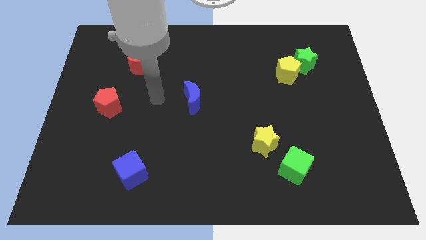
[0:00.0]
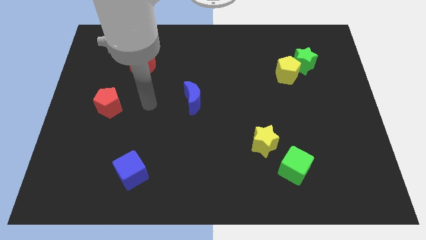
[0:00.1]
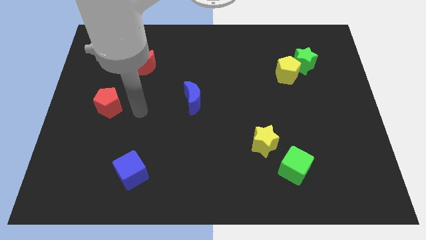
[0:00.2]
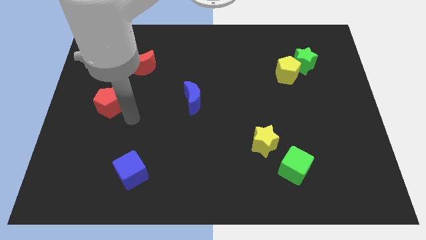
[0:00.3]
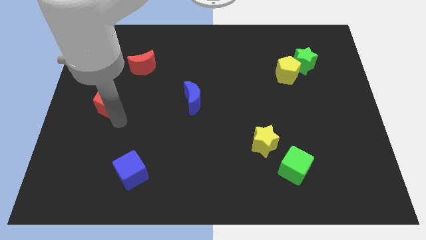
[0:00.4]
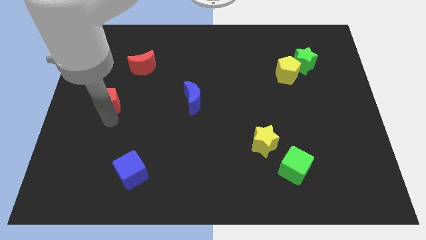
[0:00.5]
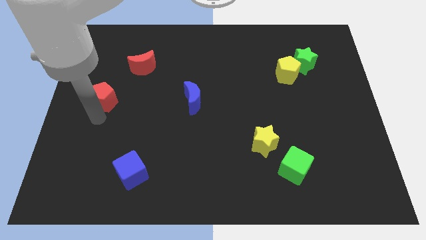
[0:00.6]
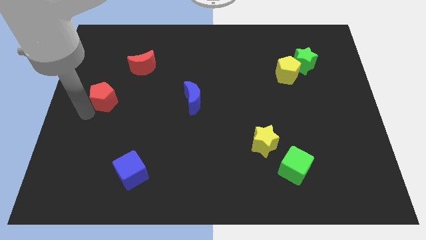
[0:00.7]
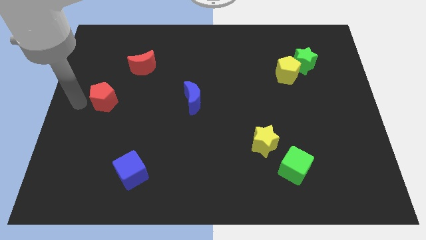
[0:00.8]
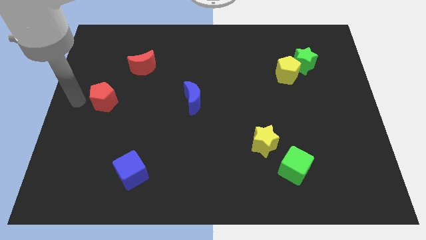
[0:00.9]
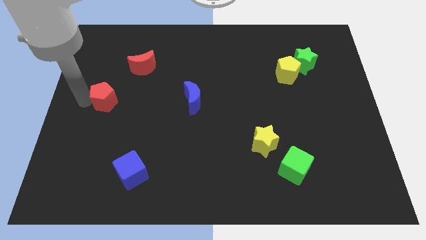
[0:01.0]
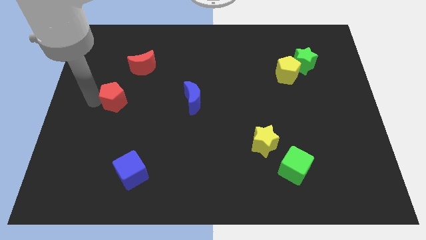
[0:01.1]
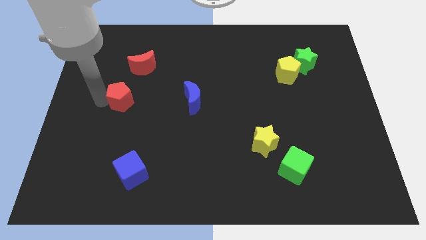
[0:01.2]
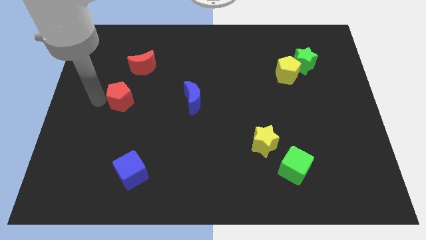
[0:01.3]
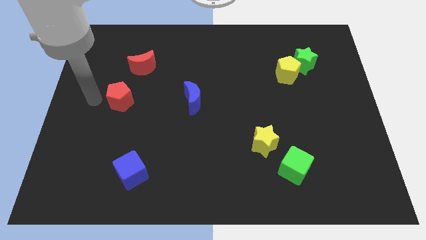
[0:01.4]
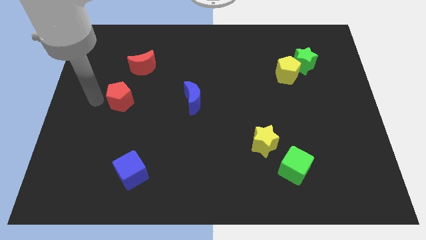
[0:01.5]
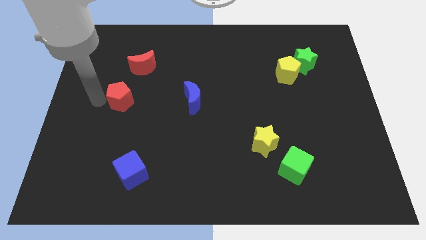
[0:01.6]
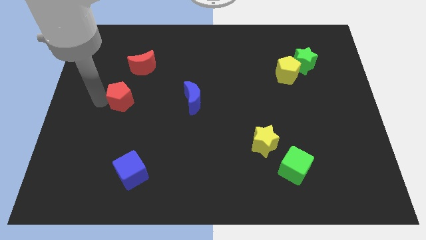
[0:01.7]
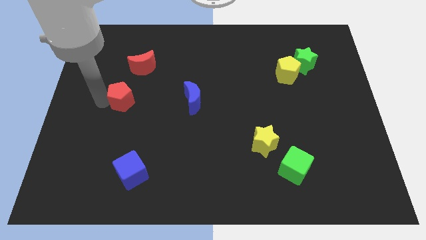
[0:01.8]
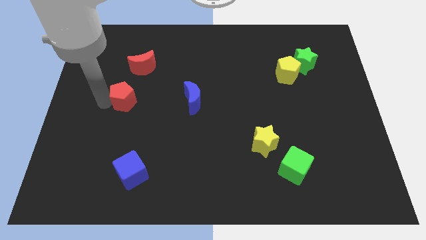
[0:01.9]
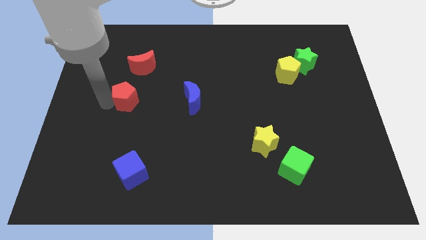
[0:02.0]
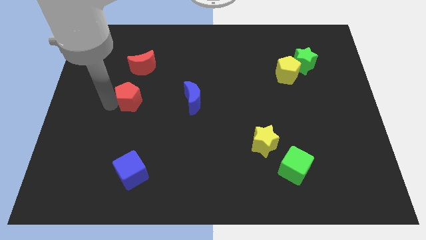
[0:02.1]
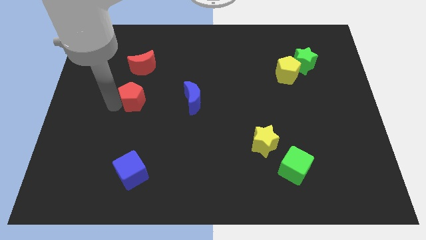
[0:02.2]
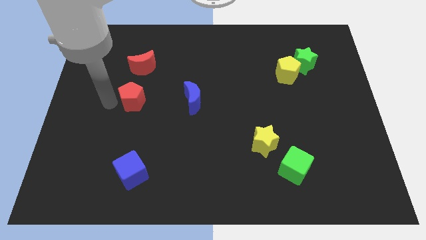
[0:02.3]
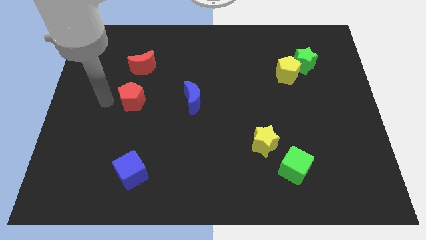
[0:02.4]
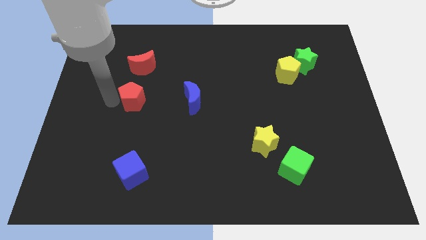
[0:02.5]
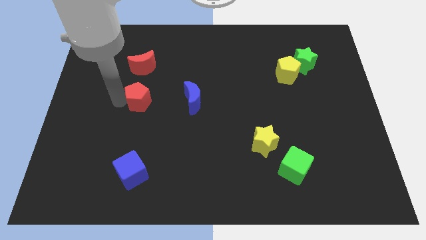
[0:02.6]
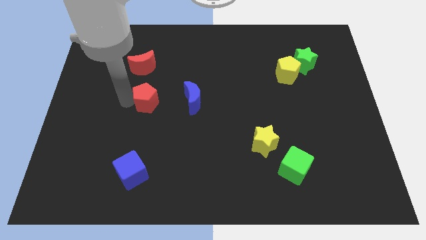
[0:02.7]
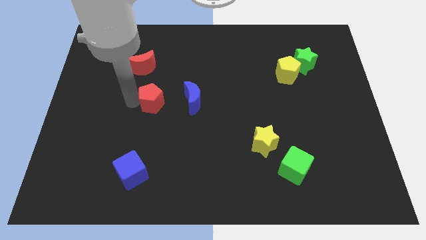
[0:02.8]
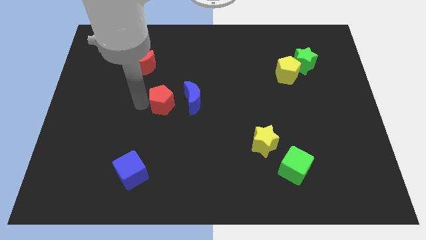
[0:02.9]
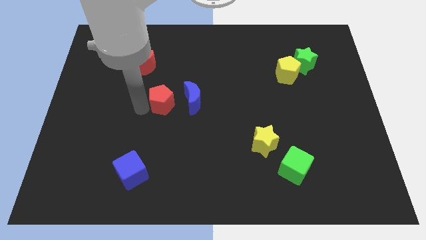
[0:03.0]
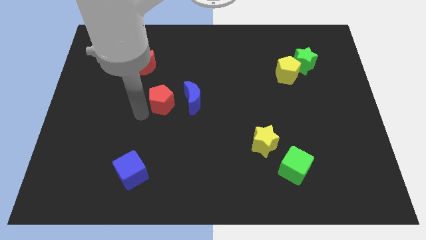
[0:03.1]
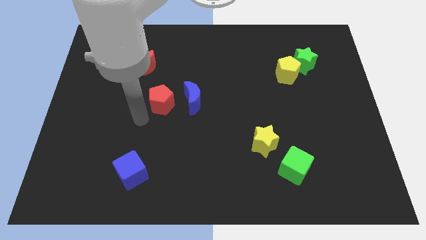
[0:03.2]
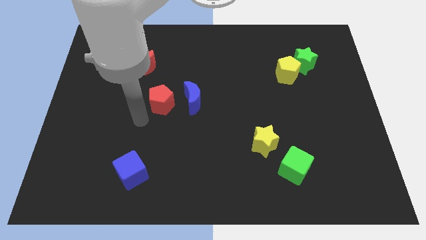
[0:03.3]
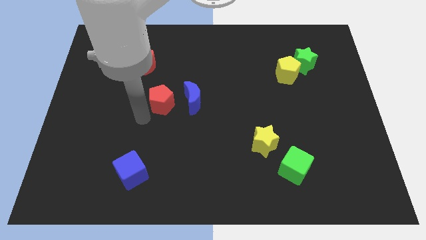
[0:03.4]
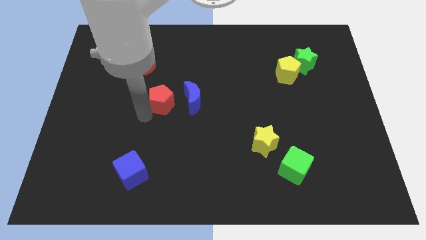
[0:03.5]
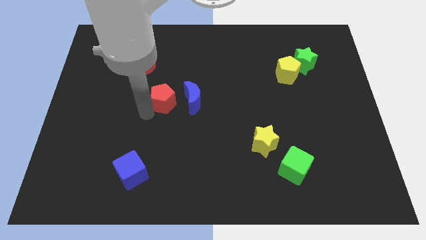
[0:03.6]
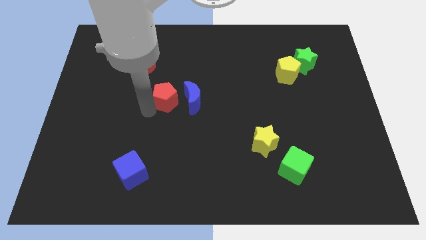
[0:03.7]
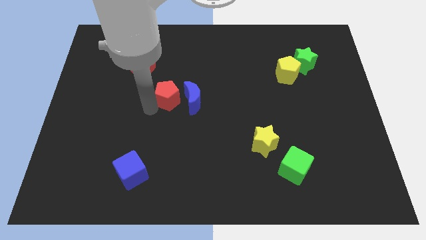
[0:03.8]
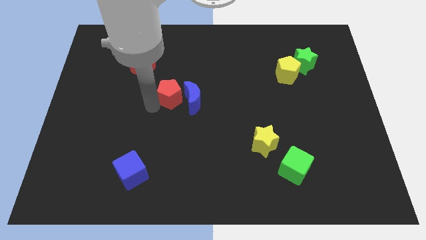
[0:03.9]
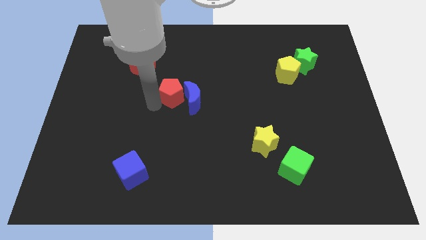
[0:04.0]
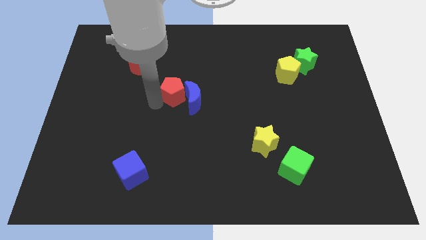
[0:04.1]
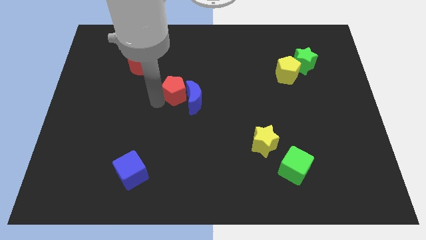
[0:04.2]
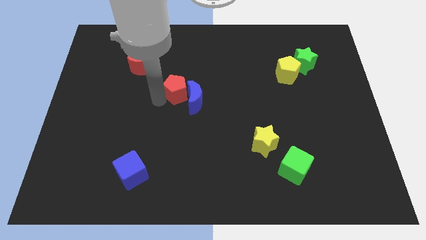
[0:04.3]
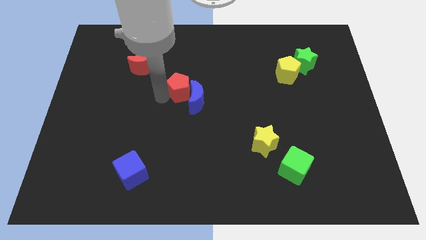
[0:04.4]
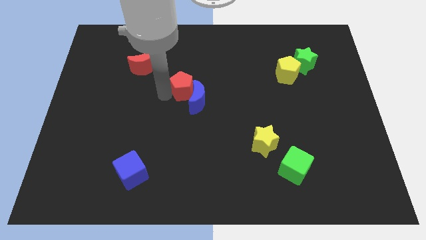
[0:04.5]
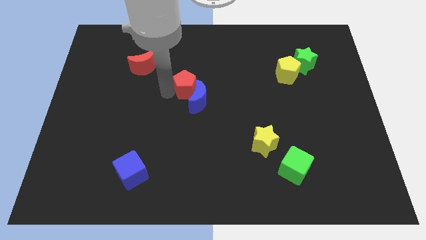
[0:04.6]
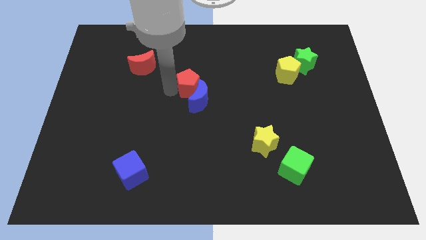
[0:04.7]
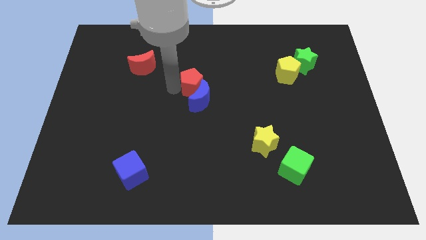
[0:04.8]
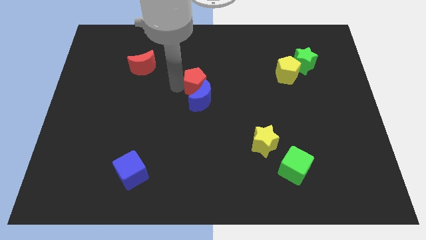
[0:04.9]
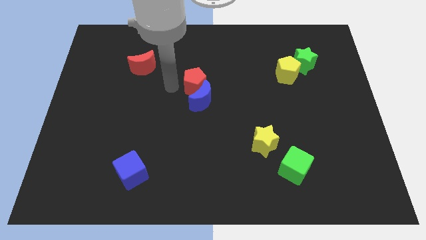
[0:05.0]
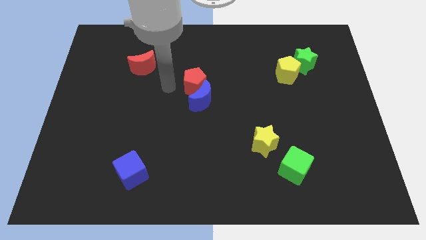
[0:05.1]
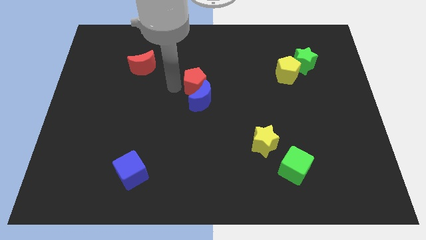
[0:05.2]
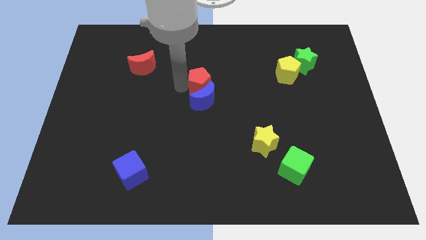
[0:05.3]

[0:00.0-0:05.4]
put the red pentagon to the top right of the blue moon

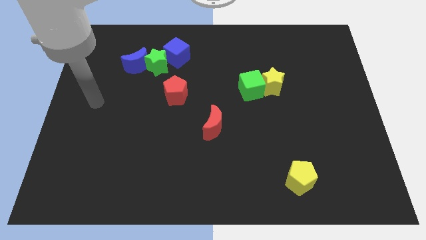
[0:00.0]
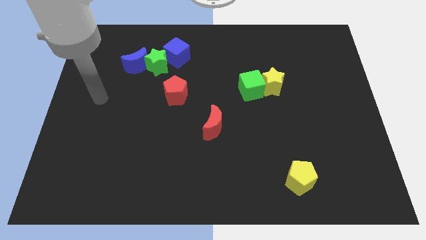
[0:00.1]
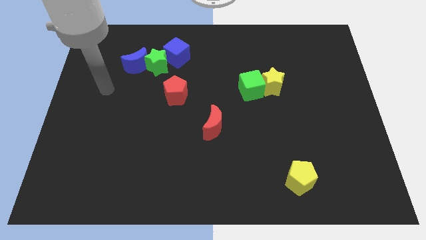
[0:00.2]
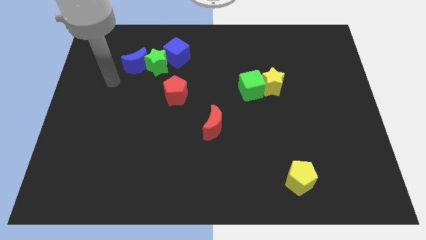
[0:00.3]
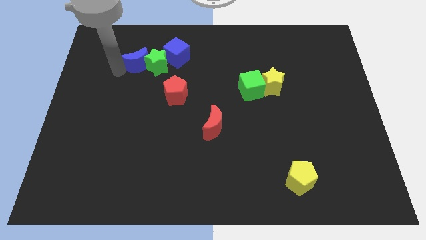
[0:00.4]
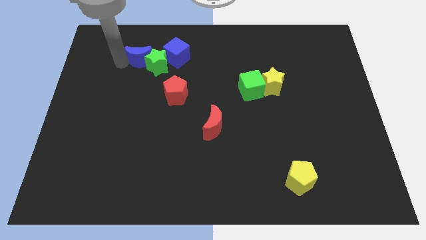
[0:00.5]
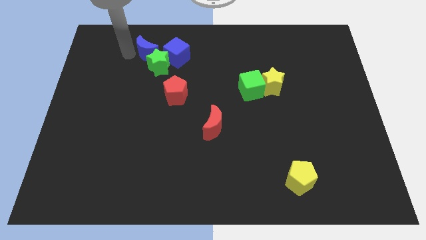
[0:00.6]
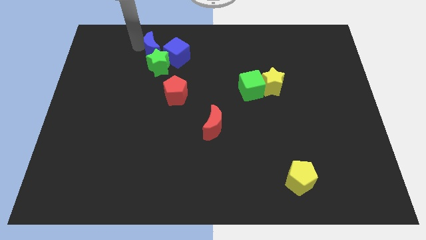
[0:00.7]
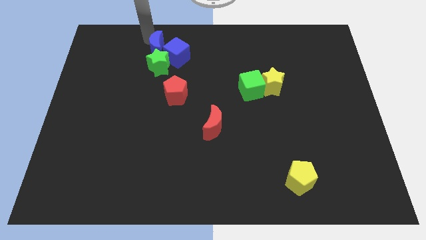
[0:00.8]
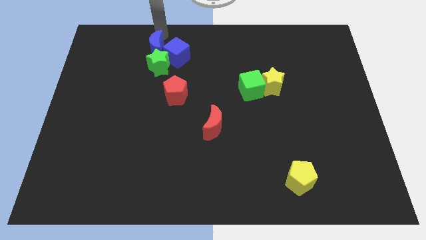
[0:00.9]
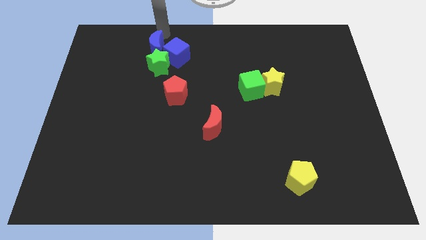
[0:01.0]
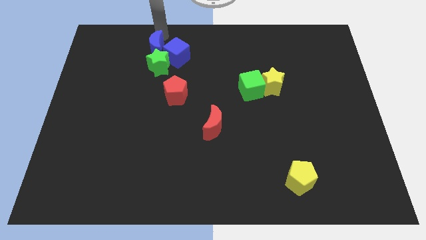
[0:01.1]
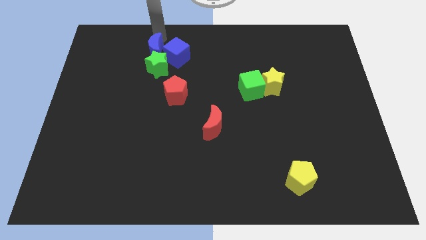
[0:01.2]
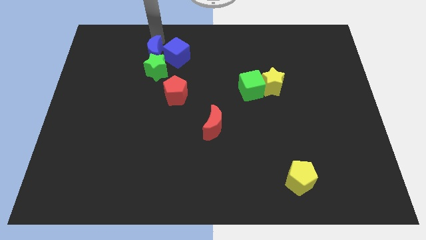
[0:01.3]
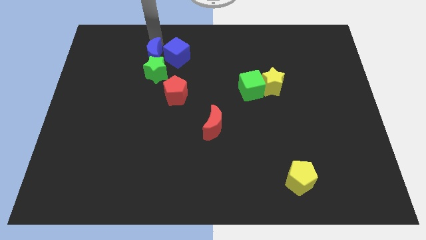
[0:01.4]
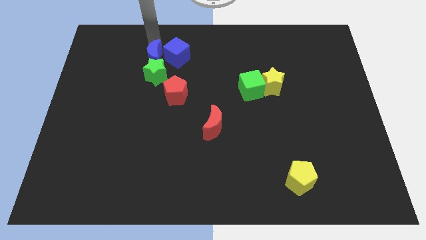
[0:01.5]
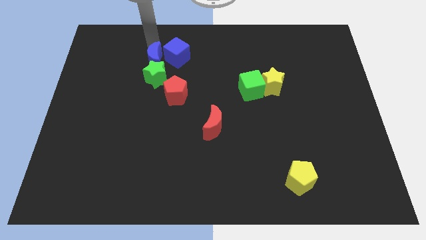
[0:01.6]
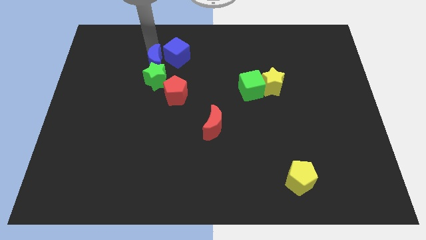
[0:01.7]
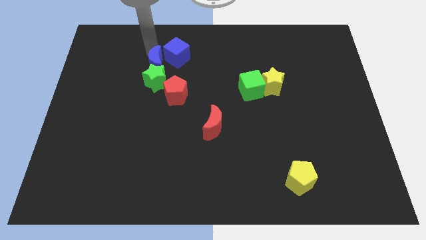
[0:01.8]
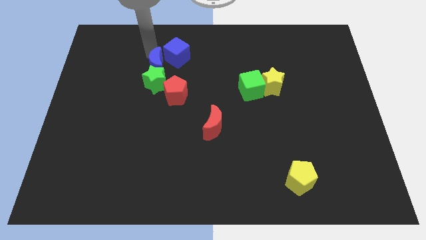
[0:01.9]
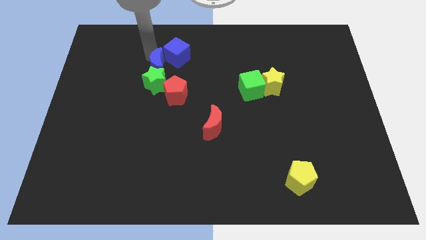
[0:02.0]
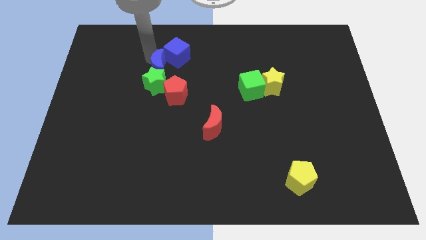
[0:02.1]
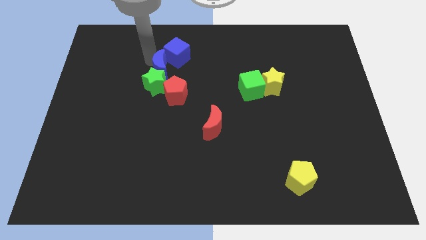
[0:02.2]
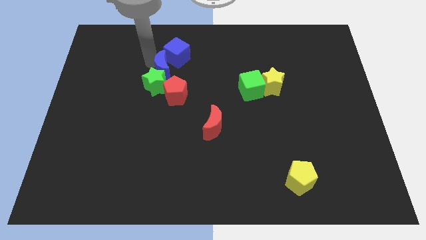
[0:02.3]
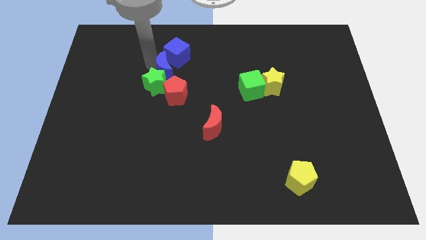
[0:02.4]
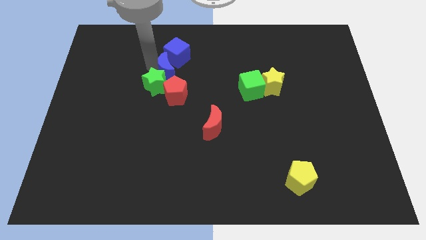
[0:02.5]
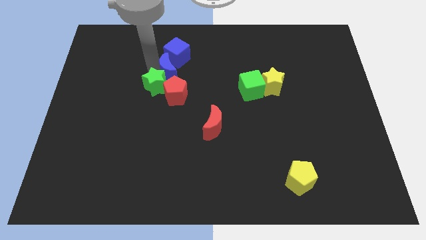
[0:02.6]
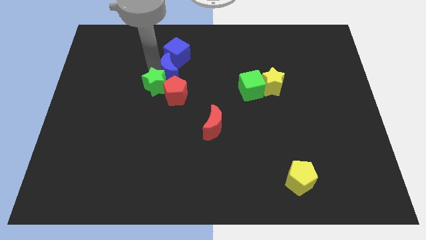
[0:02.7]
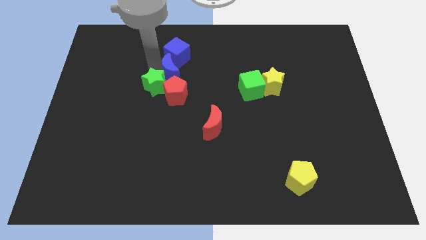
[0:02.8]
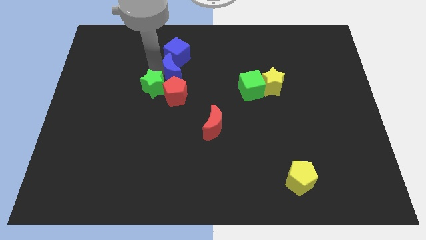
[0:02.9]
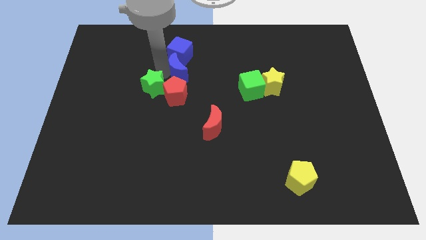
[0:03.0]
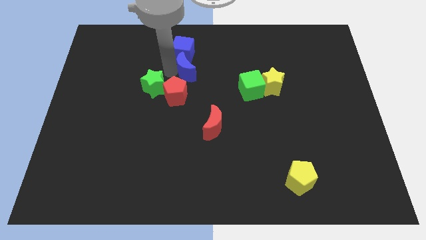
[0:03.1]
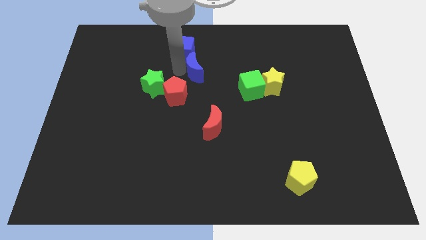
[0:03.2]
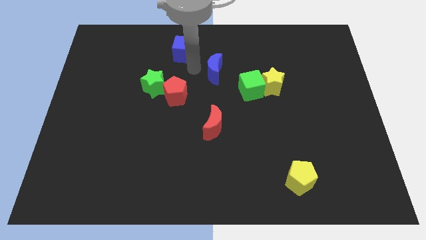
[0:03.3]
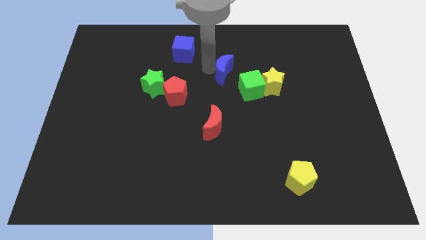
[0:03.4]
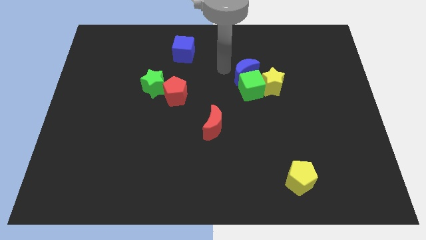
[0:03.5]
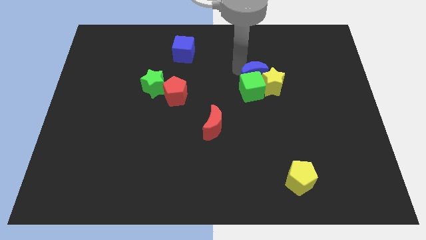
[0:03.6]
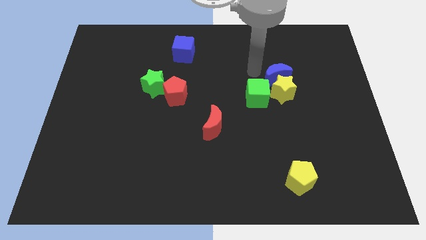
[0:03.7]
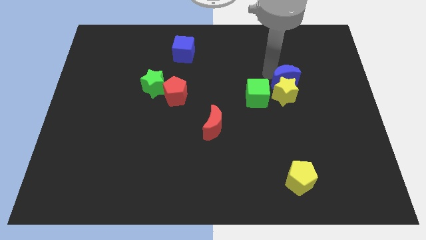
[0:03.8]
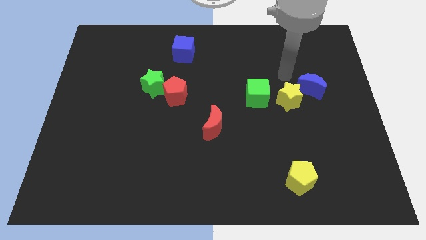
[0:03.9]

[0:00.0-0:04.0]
push the blue moon to the right side of the green cube
